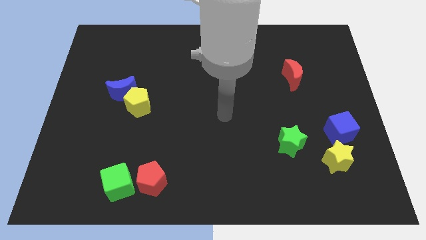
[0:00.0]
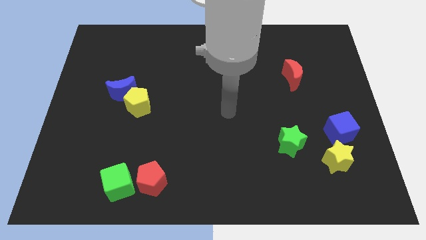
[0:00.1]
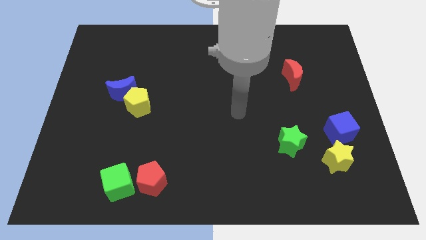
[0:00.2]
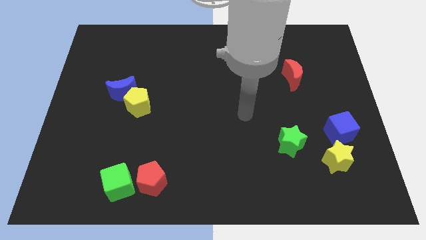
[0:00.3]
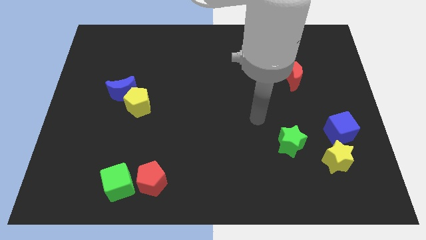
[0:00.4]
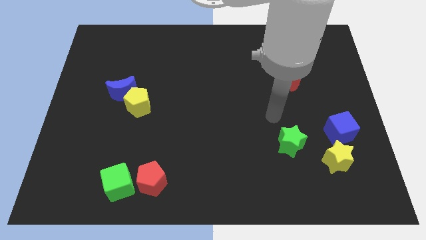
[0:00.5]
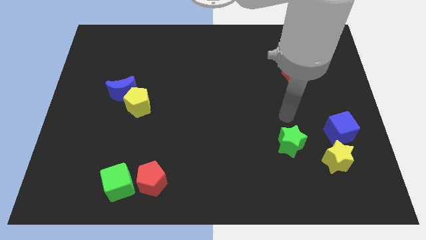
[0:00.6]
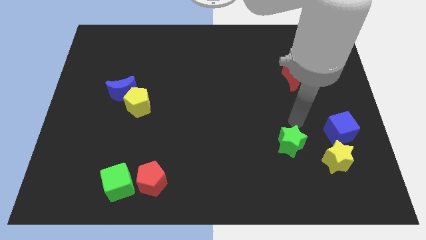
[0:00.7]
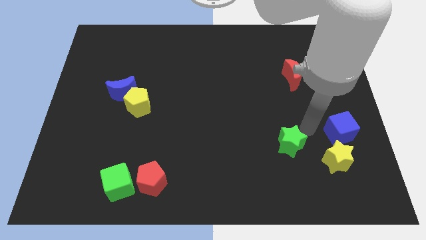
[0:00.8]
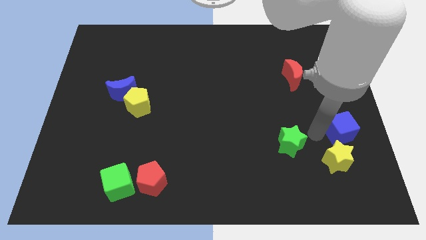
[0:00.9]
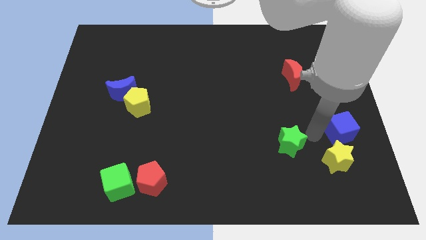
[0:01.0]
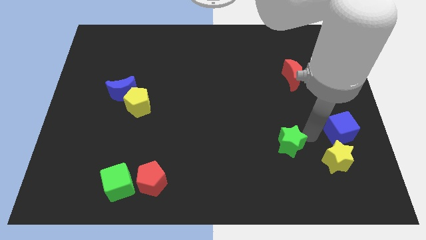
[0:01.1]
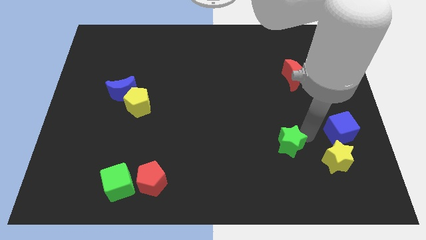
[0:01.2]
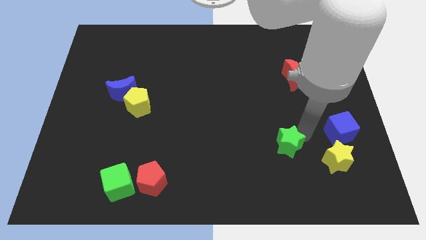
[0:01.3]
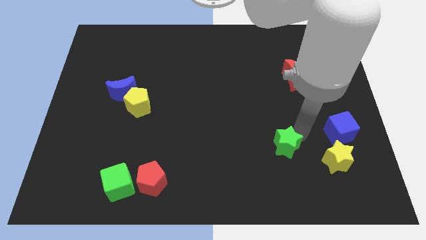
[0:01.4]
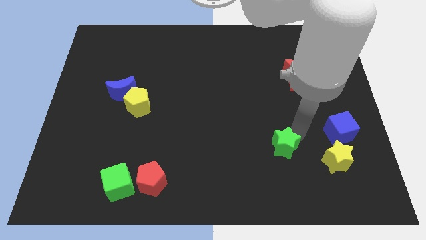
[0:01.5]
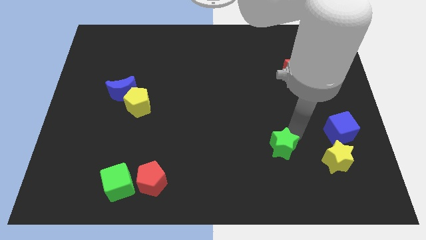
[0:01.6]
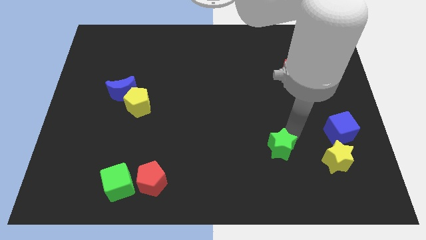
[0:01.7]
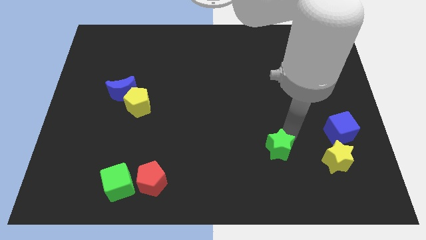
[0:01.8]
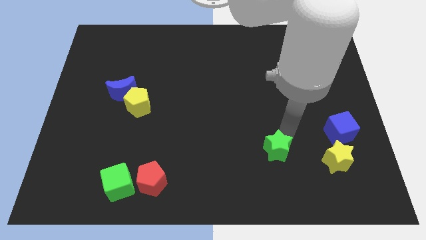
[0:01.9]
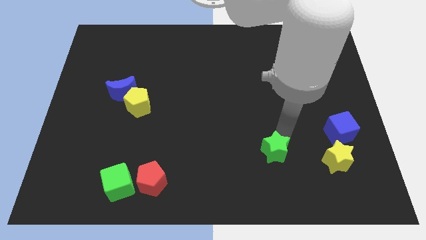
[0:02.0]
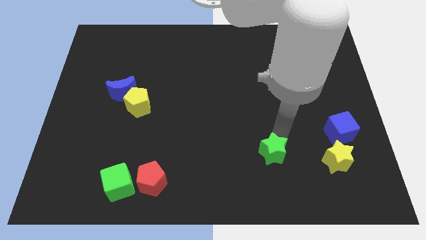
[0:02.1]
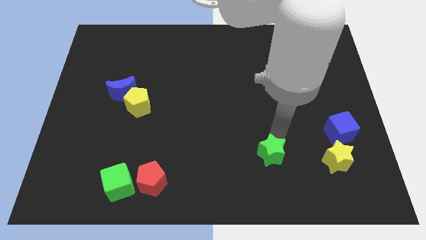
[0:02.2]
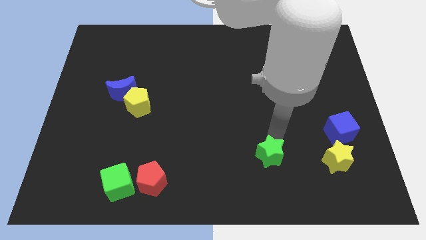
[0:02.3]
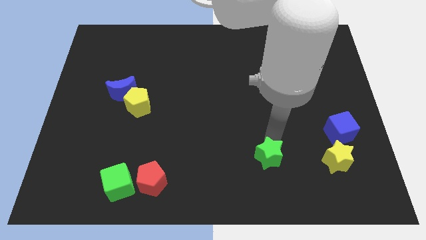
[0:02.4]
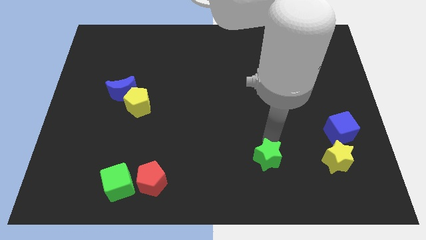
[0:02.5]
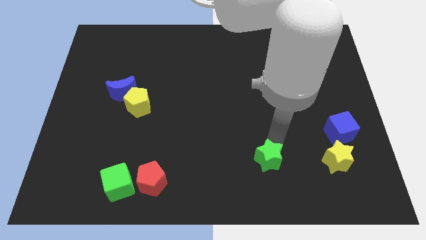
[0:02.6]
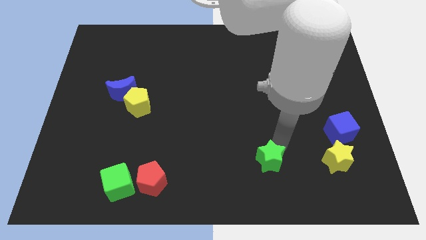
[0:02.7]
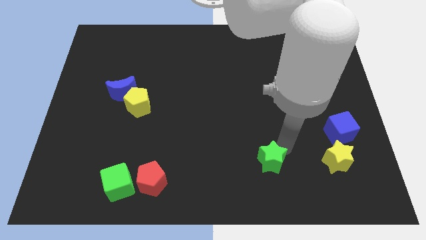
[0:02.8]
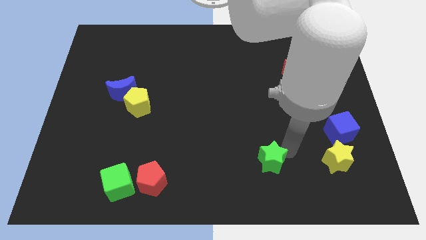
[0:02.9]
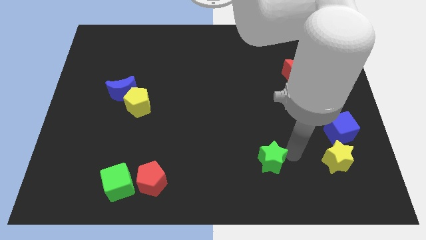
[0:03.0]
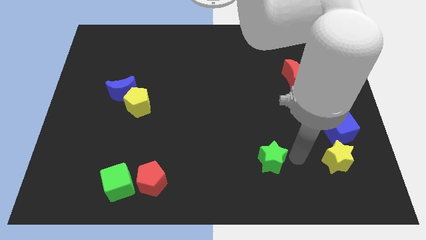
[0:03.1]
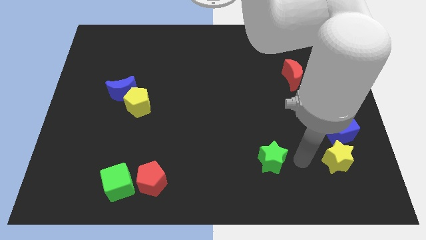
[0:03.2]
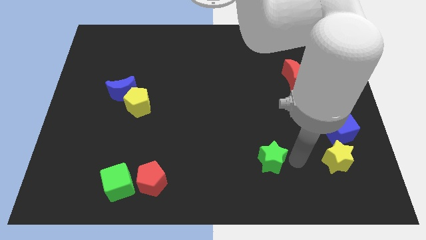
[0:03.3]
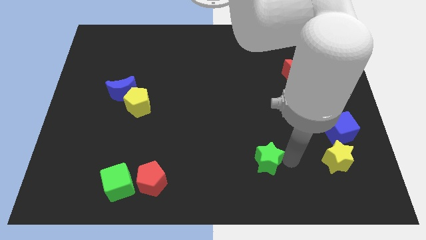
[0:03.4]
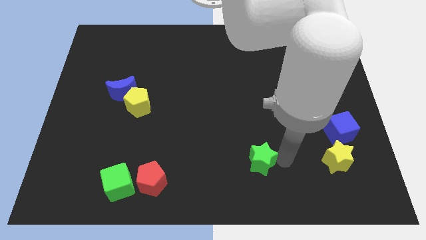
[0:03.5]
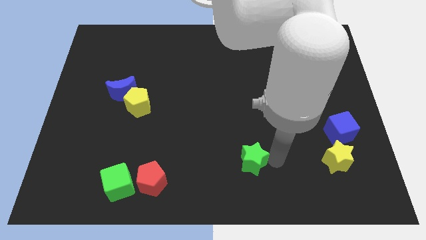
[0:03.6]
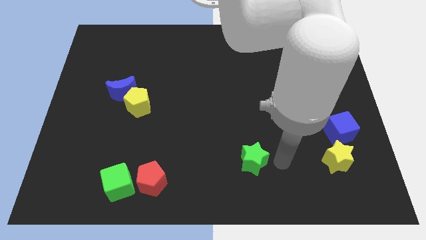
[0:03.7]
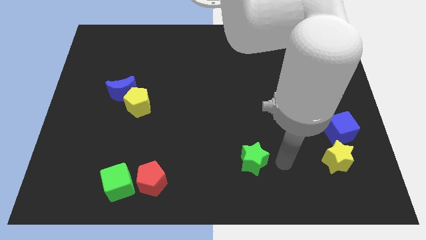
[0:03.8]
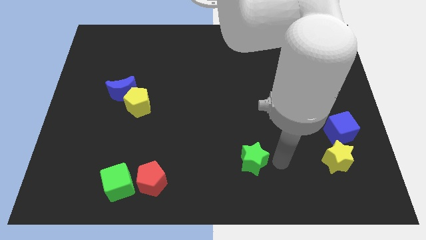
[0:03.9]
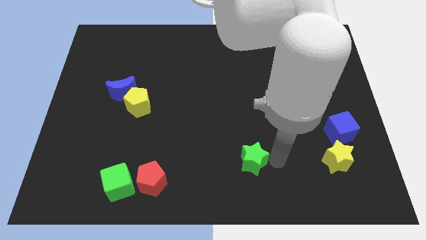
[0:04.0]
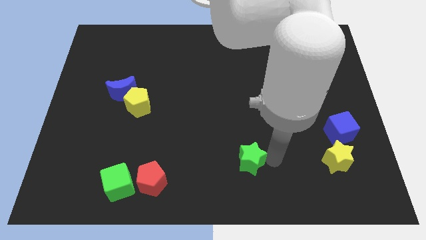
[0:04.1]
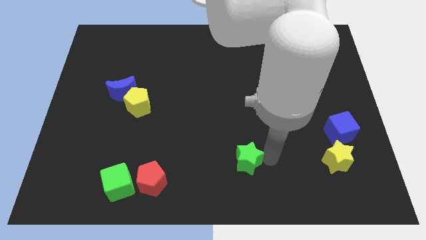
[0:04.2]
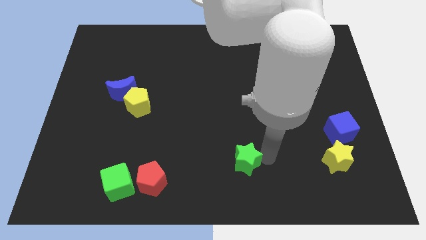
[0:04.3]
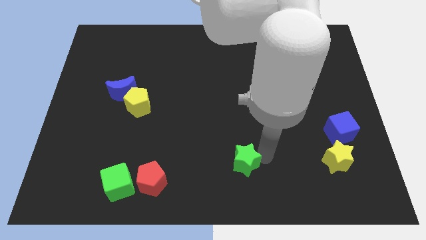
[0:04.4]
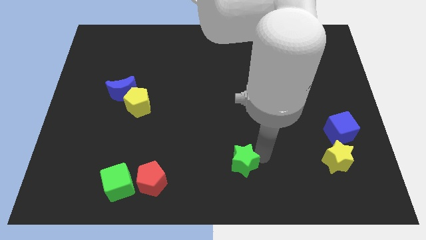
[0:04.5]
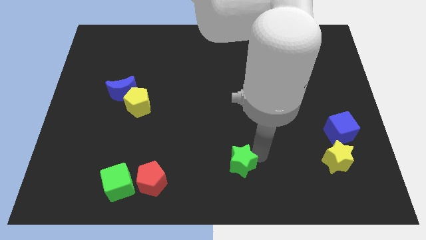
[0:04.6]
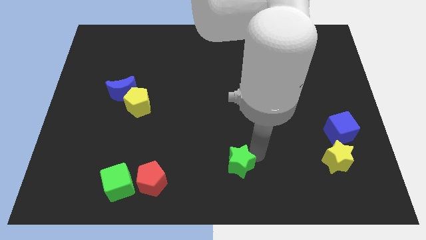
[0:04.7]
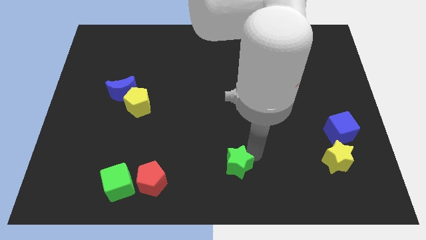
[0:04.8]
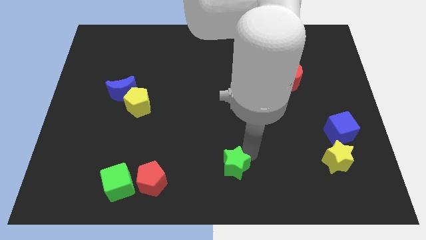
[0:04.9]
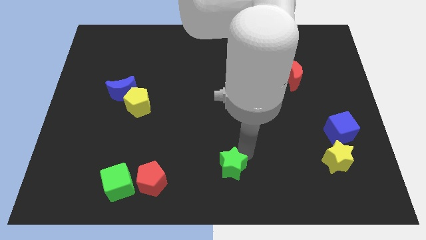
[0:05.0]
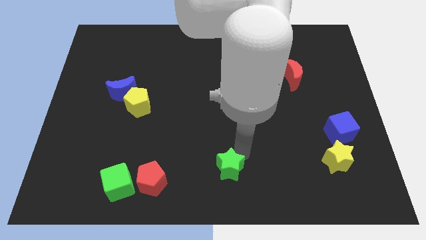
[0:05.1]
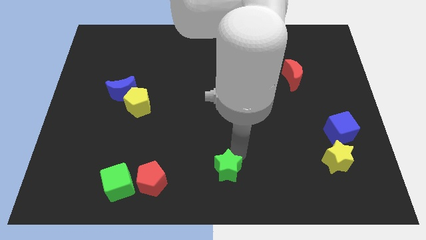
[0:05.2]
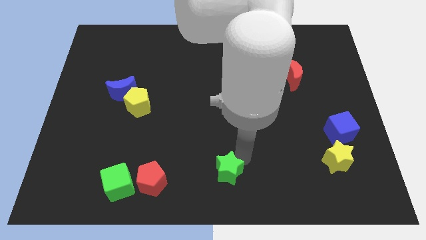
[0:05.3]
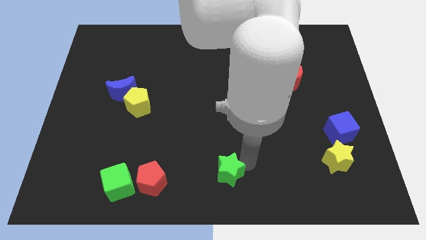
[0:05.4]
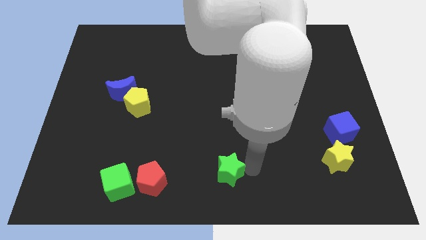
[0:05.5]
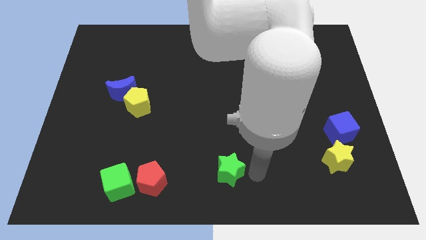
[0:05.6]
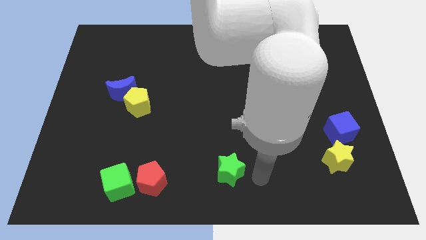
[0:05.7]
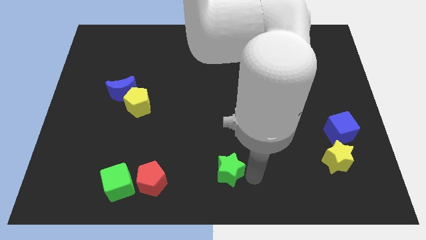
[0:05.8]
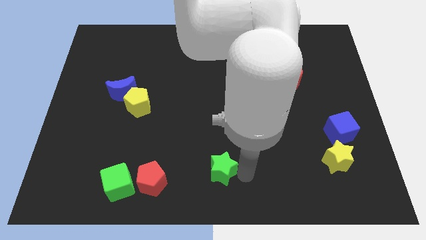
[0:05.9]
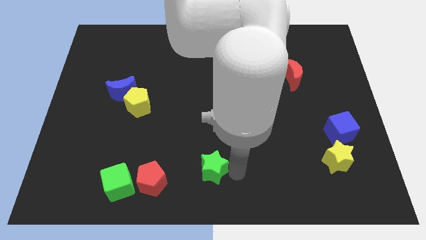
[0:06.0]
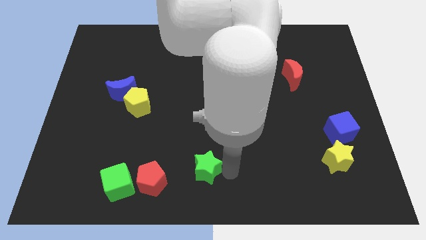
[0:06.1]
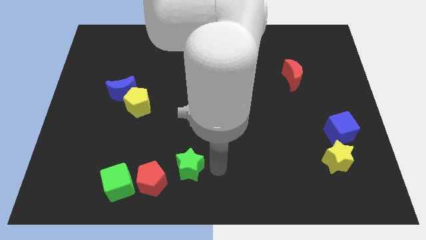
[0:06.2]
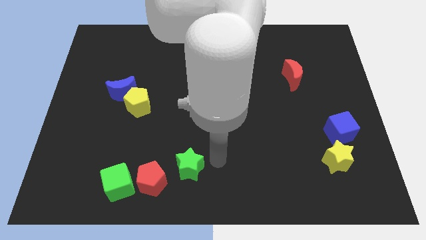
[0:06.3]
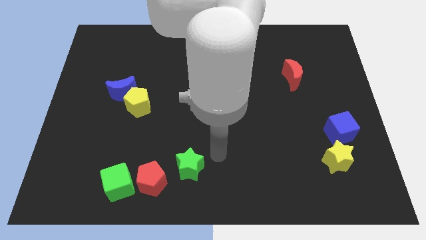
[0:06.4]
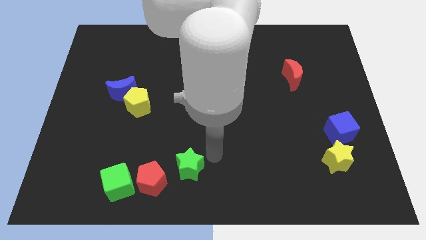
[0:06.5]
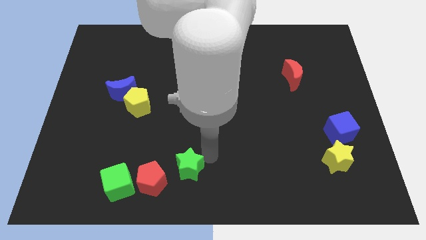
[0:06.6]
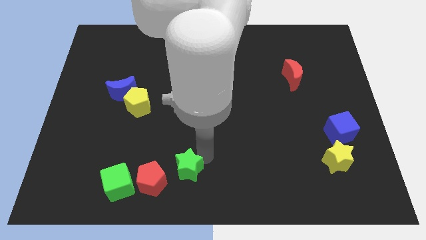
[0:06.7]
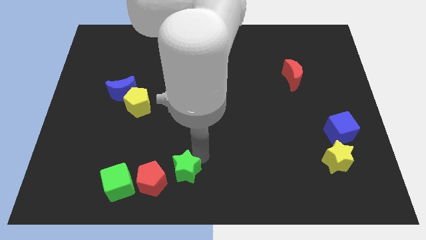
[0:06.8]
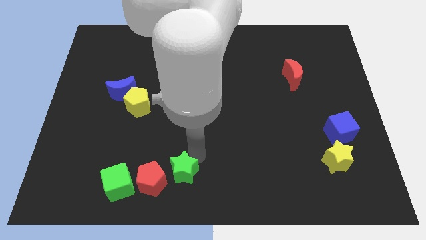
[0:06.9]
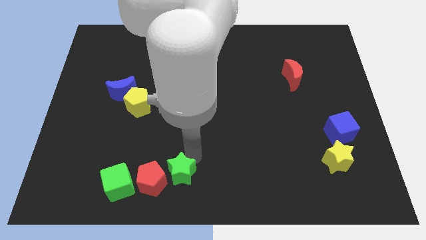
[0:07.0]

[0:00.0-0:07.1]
slide the green star towards the red pentagon
